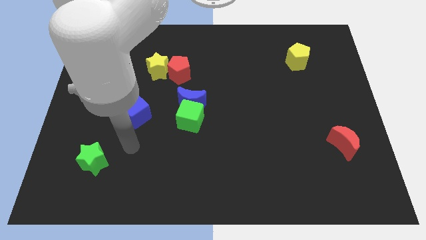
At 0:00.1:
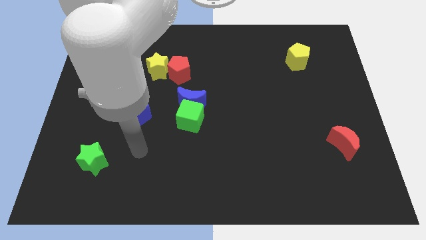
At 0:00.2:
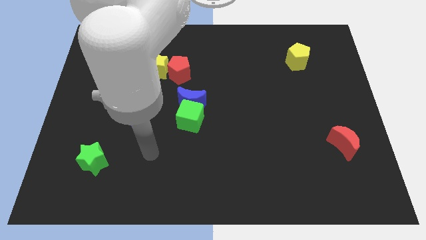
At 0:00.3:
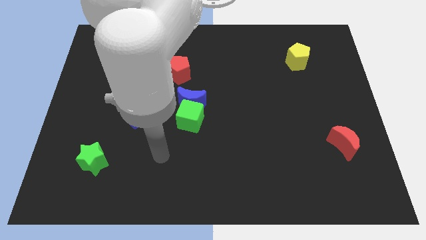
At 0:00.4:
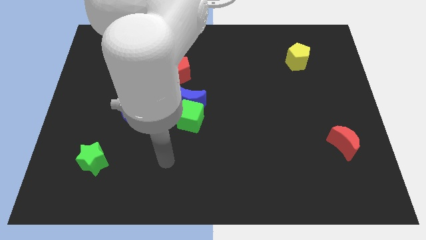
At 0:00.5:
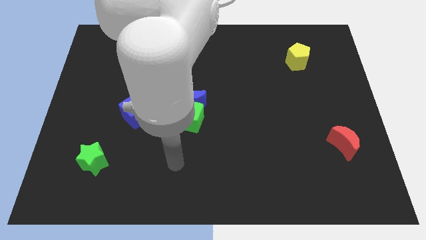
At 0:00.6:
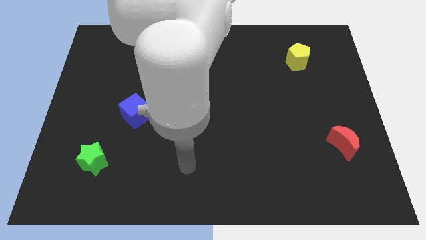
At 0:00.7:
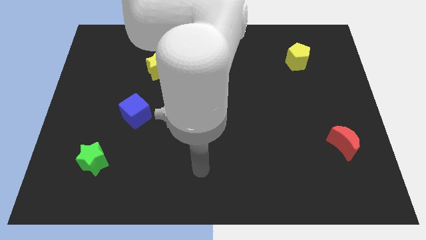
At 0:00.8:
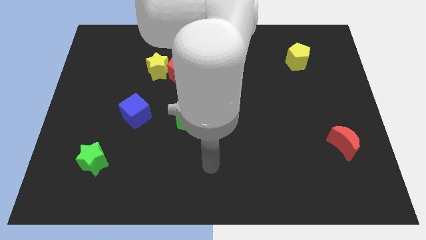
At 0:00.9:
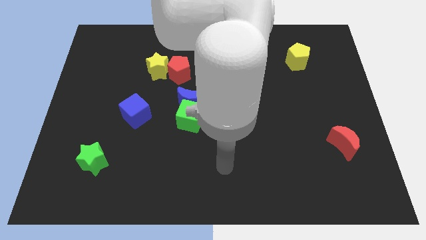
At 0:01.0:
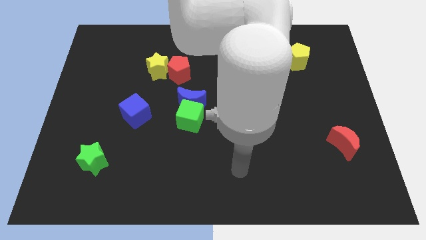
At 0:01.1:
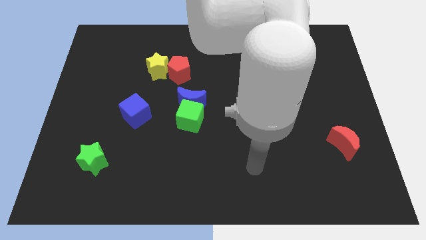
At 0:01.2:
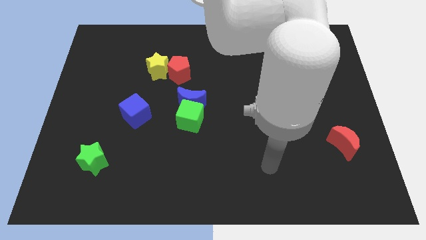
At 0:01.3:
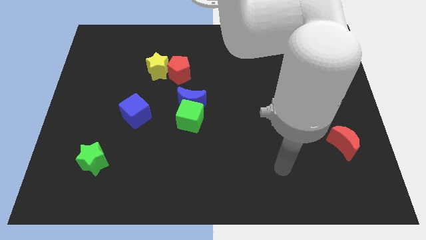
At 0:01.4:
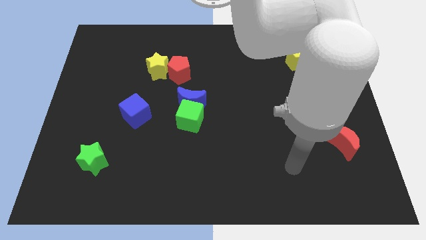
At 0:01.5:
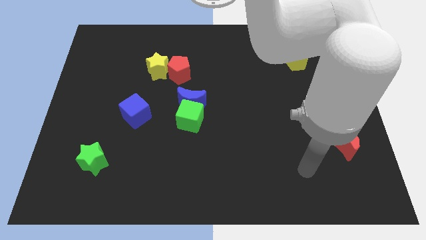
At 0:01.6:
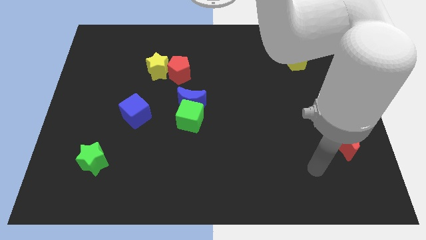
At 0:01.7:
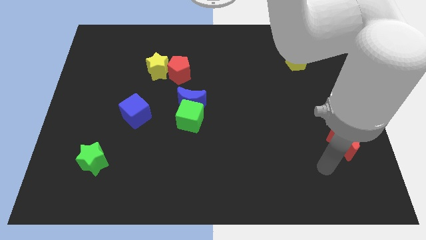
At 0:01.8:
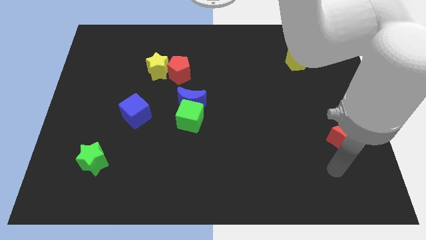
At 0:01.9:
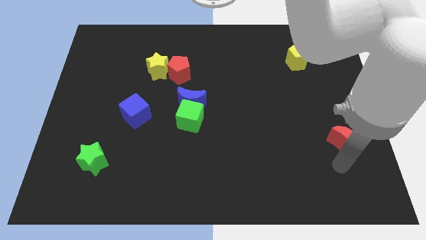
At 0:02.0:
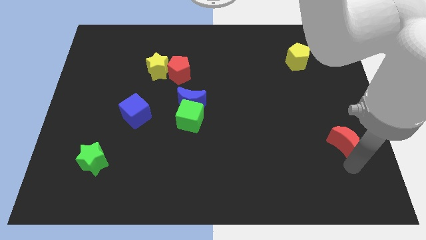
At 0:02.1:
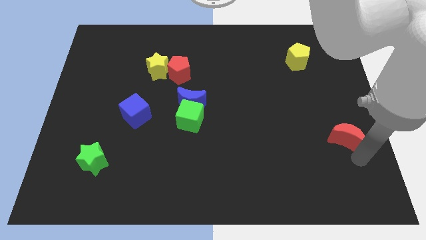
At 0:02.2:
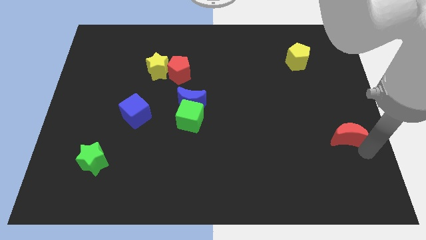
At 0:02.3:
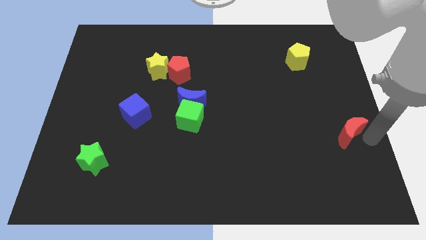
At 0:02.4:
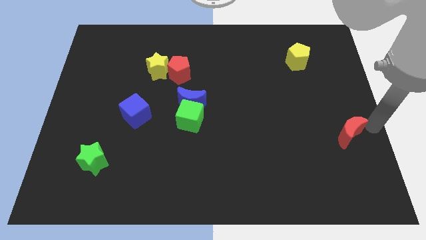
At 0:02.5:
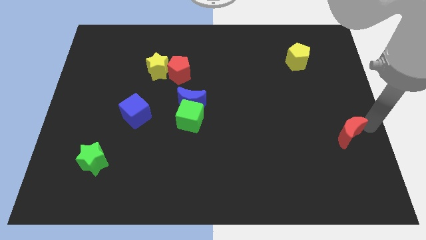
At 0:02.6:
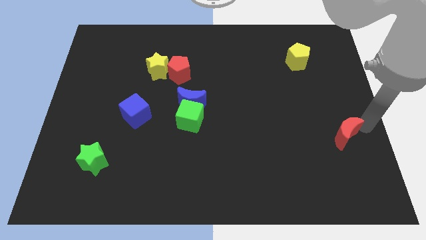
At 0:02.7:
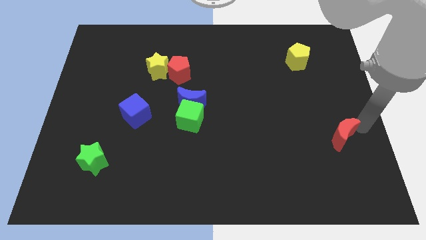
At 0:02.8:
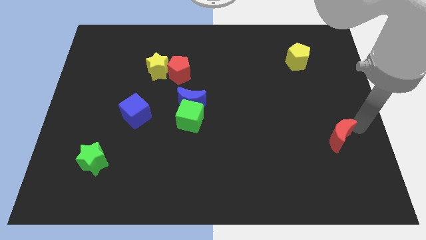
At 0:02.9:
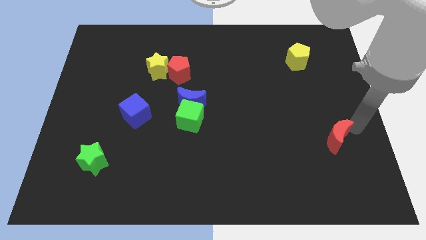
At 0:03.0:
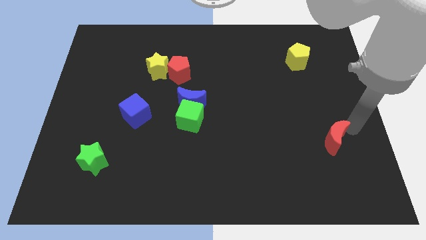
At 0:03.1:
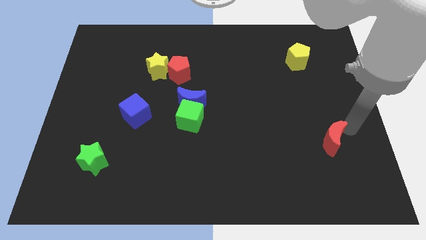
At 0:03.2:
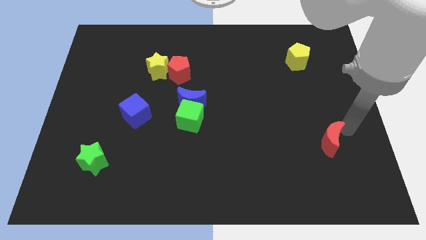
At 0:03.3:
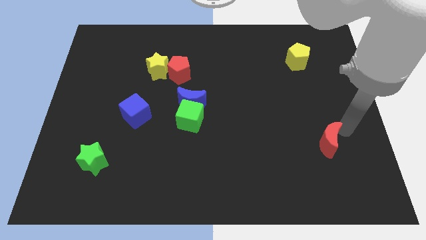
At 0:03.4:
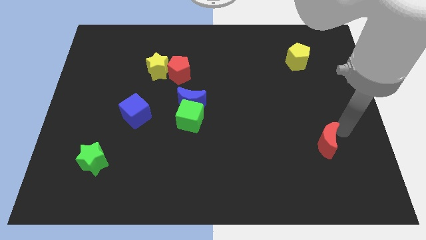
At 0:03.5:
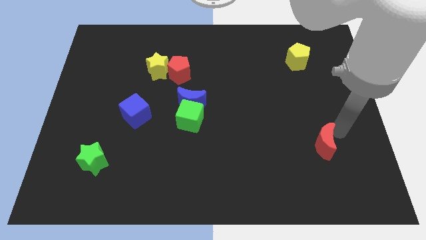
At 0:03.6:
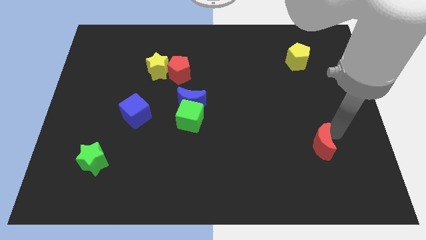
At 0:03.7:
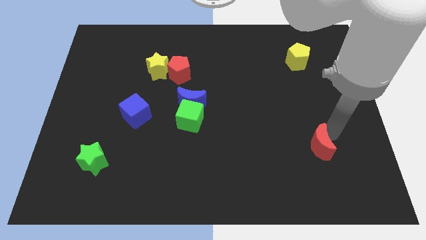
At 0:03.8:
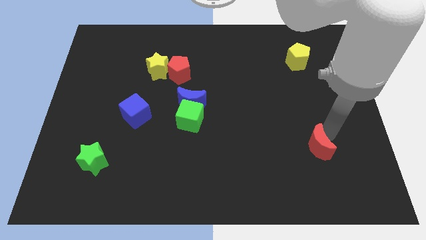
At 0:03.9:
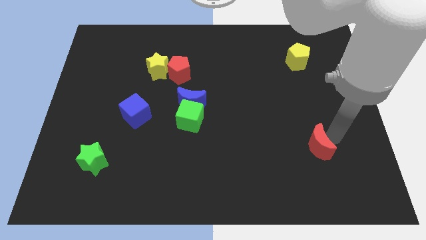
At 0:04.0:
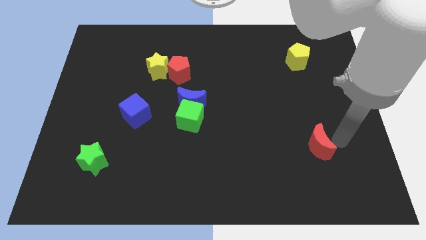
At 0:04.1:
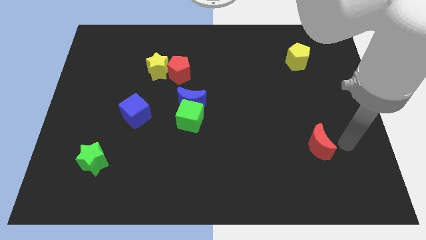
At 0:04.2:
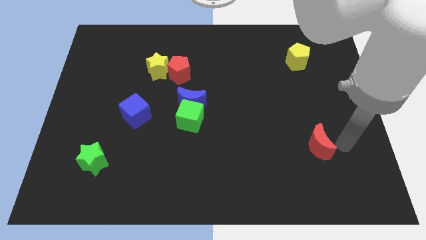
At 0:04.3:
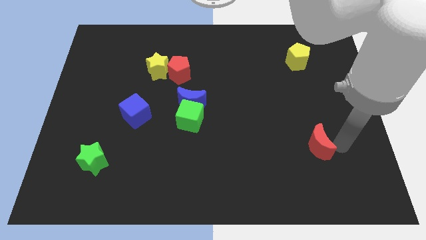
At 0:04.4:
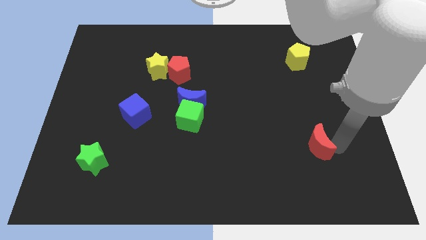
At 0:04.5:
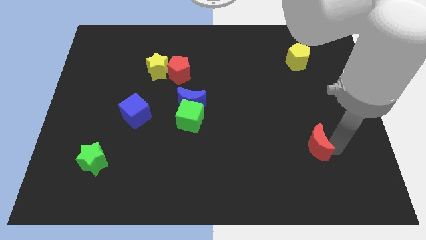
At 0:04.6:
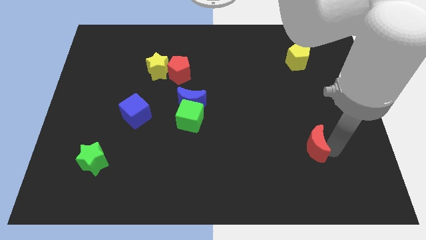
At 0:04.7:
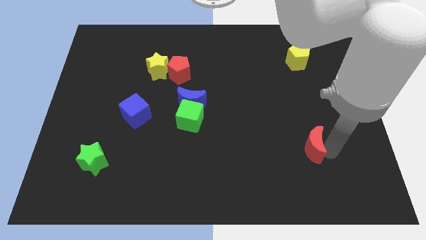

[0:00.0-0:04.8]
slightly push the red moon to the left

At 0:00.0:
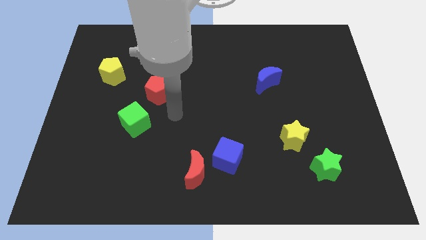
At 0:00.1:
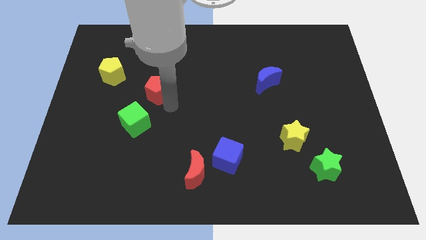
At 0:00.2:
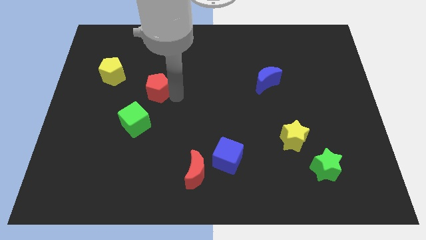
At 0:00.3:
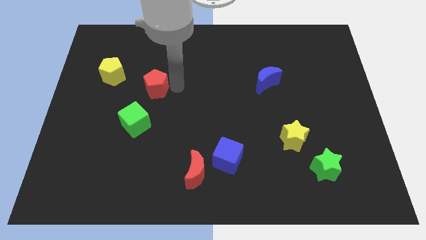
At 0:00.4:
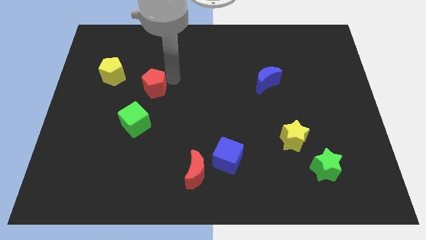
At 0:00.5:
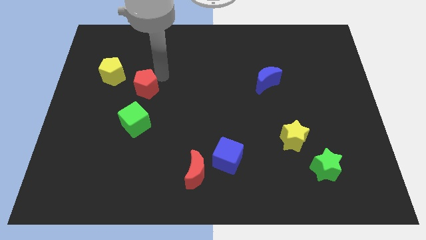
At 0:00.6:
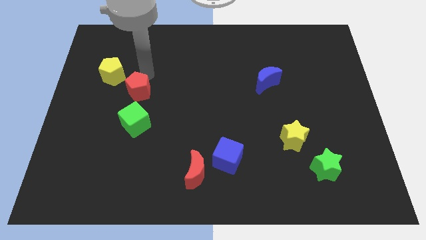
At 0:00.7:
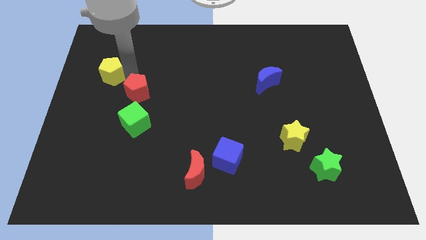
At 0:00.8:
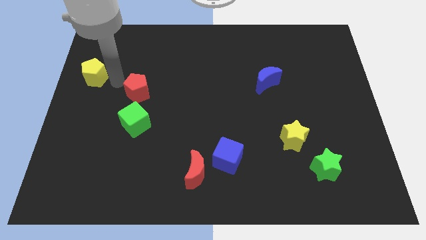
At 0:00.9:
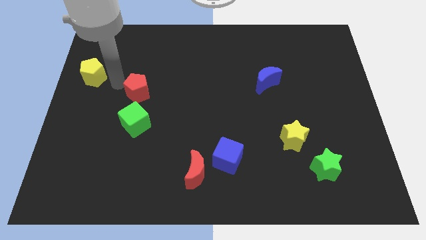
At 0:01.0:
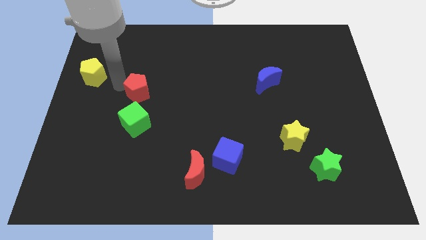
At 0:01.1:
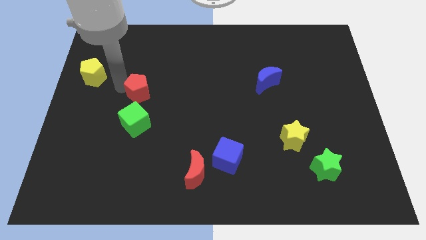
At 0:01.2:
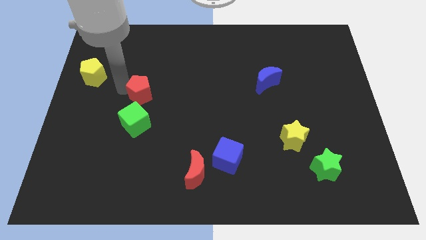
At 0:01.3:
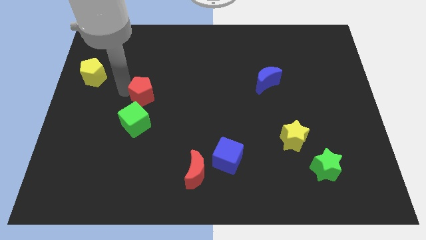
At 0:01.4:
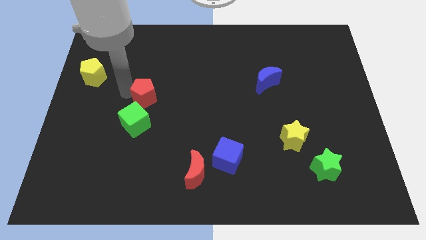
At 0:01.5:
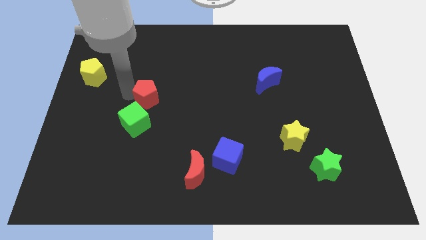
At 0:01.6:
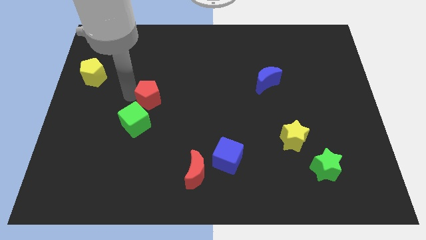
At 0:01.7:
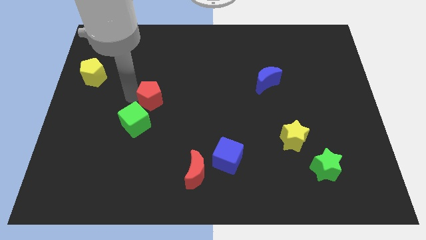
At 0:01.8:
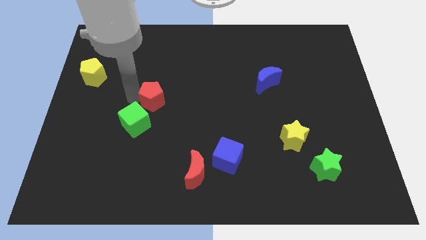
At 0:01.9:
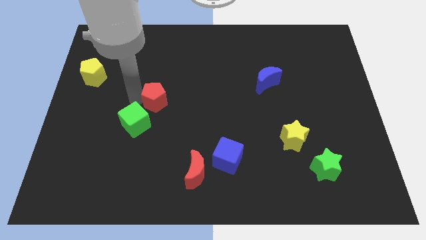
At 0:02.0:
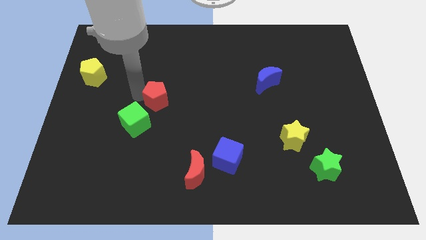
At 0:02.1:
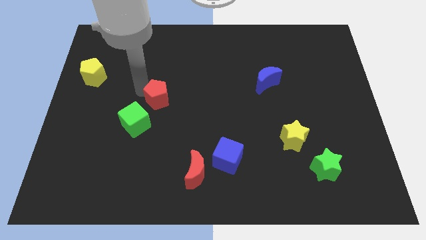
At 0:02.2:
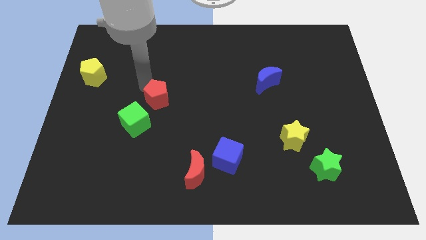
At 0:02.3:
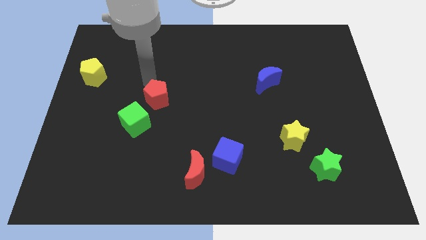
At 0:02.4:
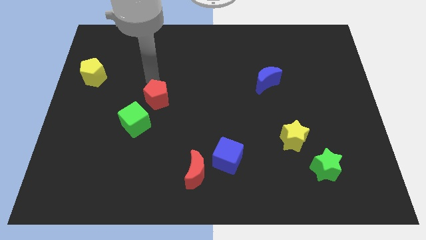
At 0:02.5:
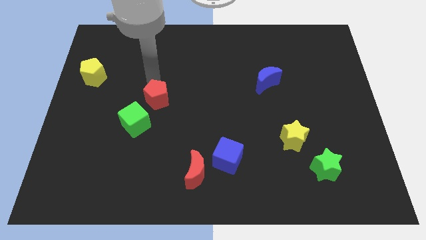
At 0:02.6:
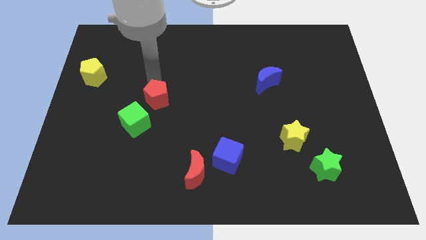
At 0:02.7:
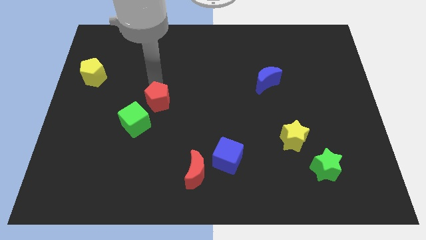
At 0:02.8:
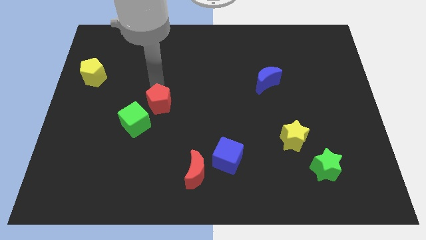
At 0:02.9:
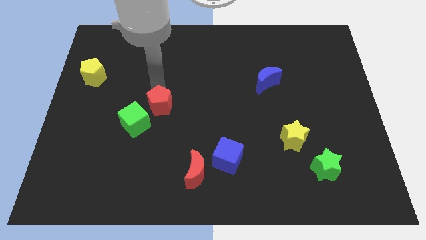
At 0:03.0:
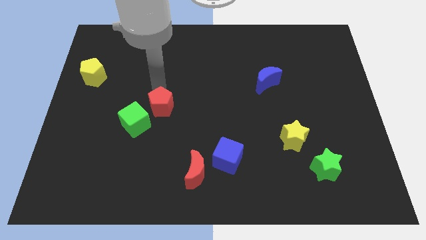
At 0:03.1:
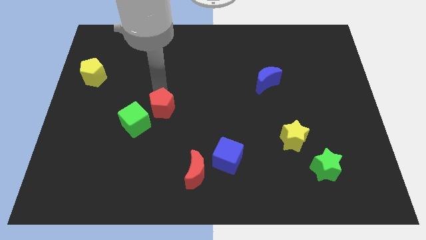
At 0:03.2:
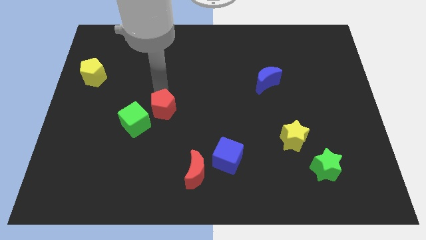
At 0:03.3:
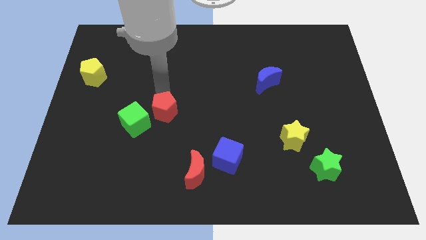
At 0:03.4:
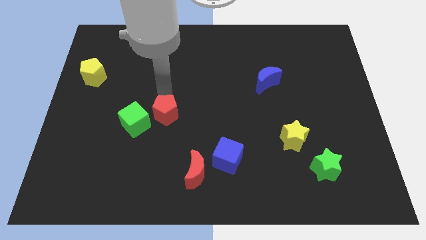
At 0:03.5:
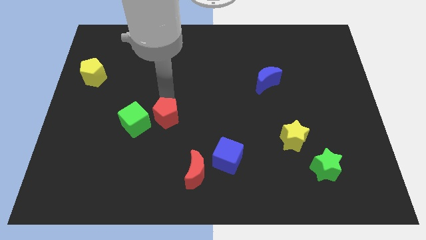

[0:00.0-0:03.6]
slide the red pentagon somewhat downwards
